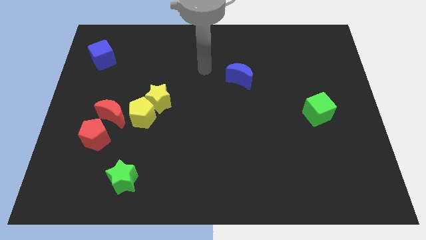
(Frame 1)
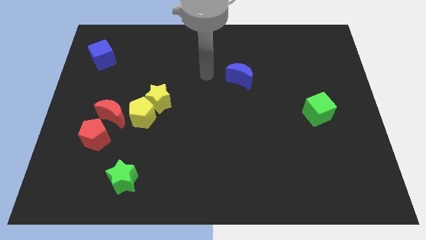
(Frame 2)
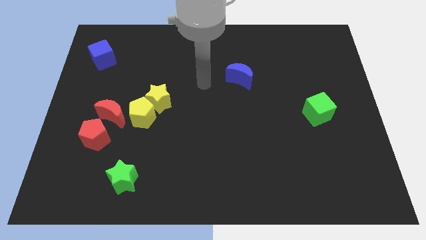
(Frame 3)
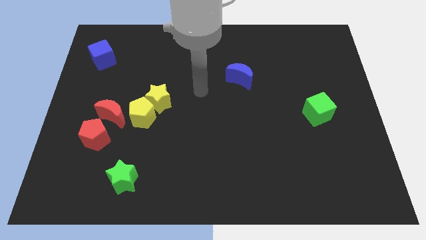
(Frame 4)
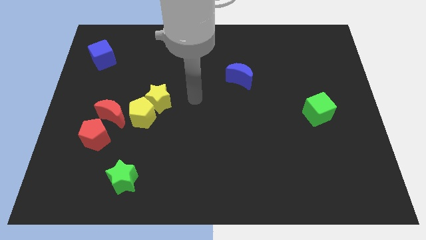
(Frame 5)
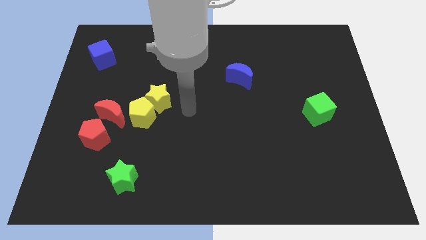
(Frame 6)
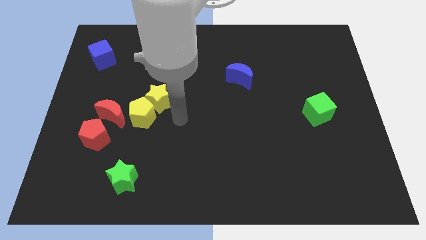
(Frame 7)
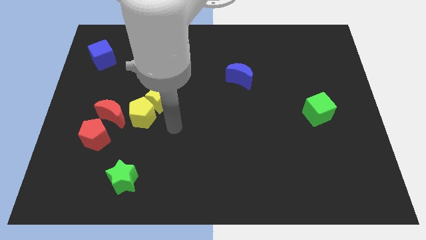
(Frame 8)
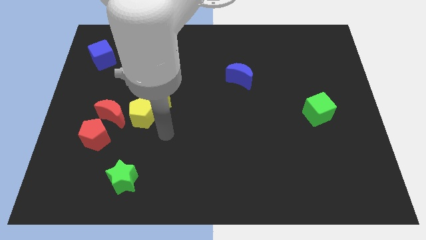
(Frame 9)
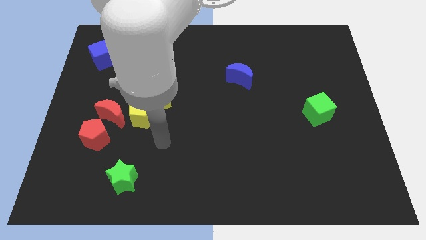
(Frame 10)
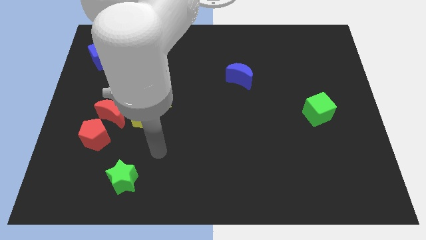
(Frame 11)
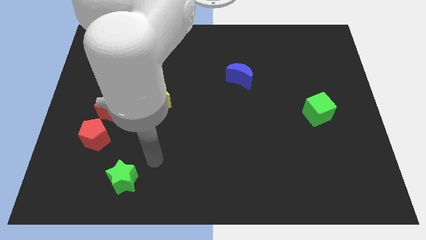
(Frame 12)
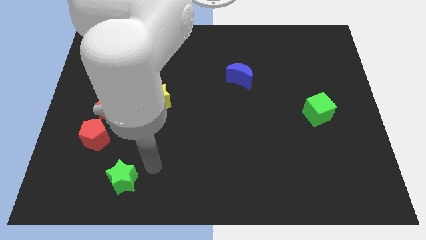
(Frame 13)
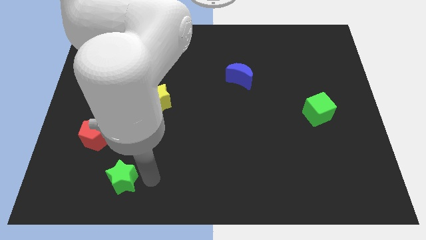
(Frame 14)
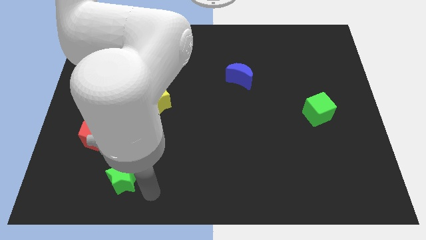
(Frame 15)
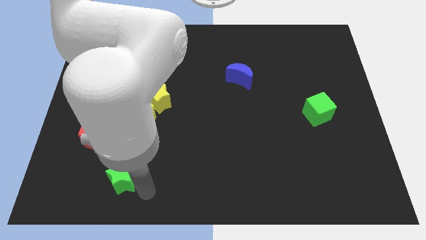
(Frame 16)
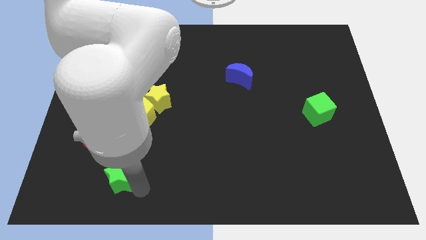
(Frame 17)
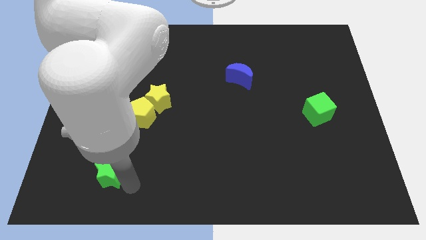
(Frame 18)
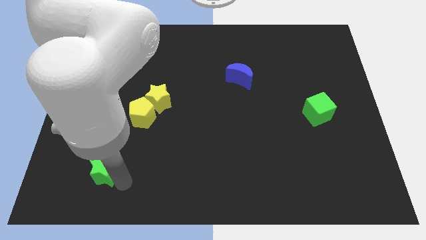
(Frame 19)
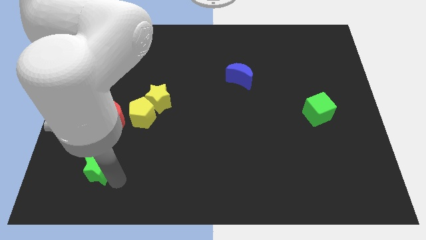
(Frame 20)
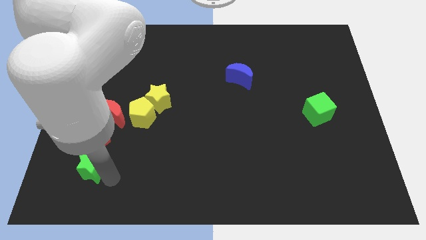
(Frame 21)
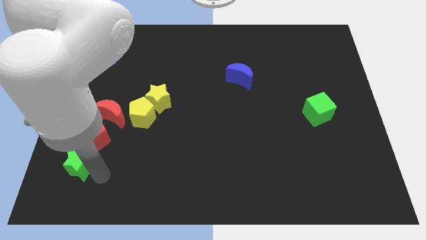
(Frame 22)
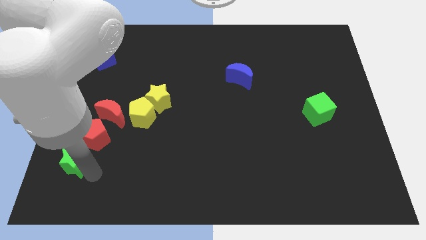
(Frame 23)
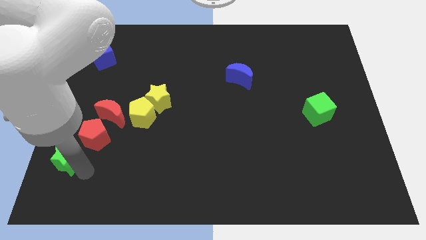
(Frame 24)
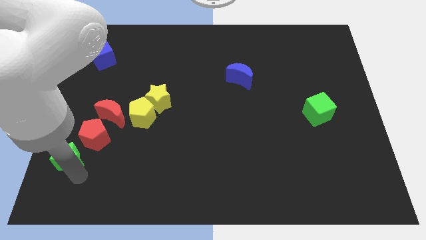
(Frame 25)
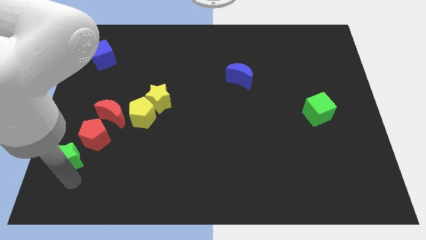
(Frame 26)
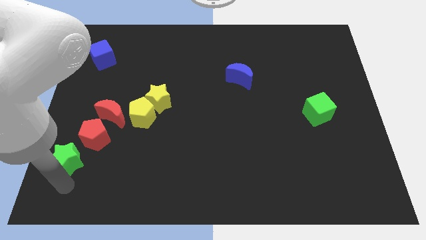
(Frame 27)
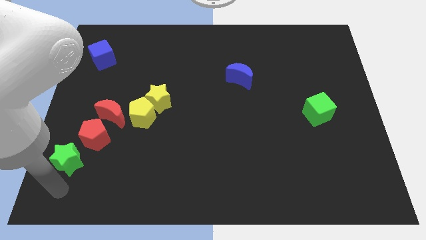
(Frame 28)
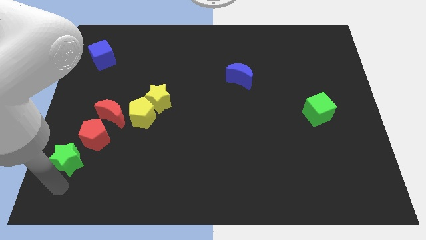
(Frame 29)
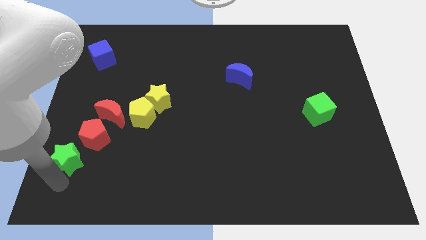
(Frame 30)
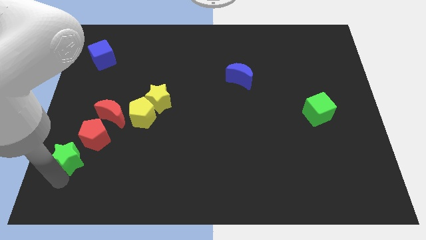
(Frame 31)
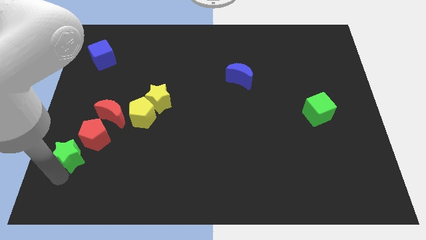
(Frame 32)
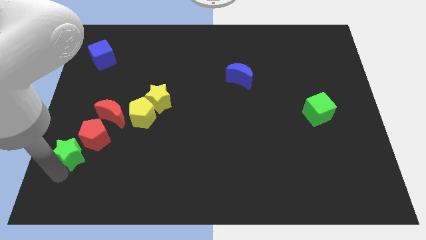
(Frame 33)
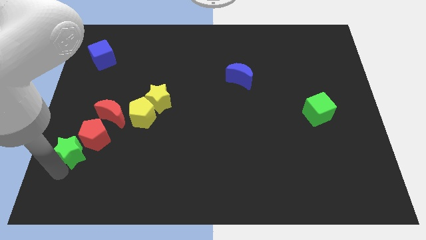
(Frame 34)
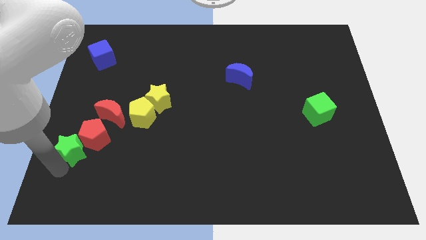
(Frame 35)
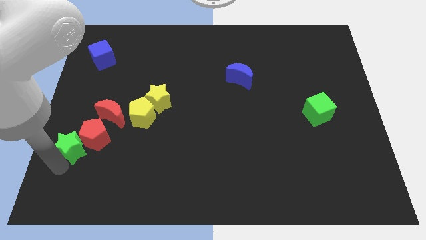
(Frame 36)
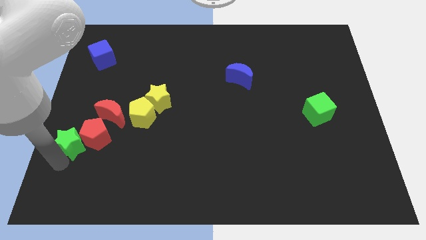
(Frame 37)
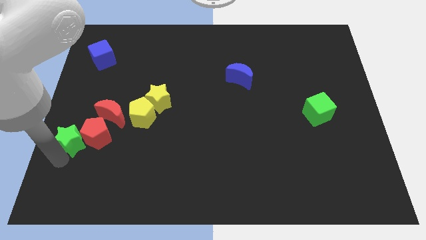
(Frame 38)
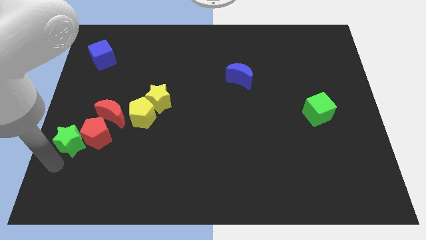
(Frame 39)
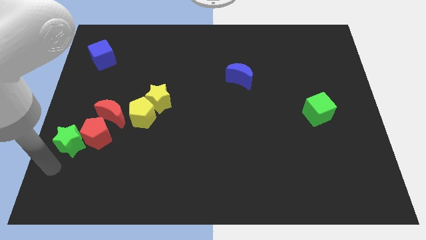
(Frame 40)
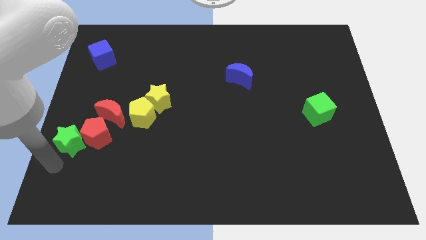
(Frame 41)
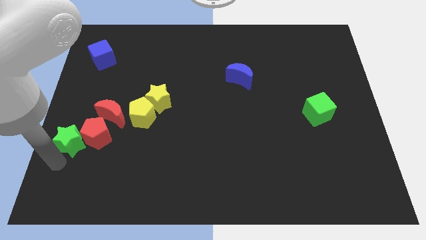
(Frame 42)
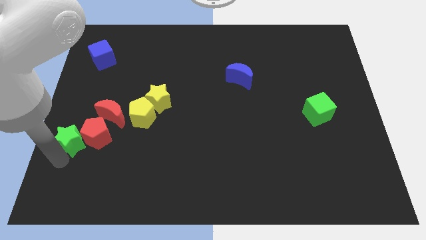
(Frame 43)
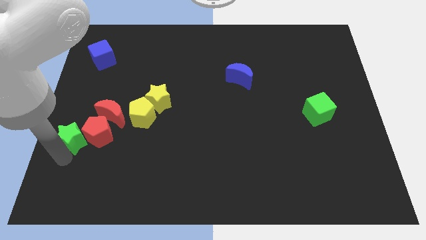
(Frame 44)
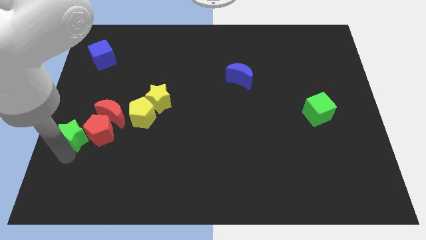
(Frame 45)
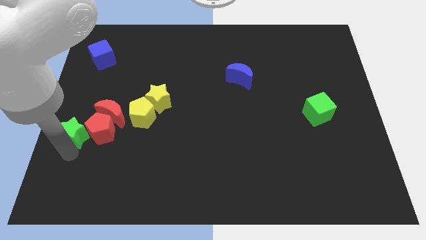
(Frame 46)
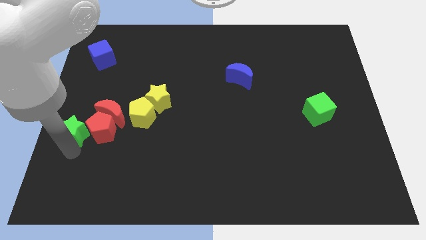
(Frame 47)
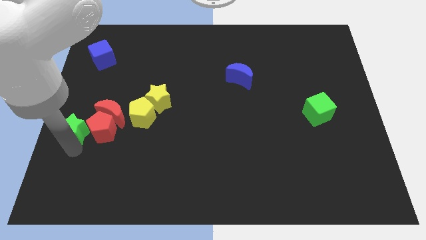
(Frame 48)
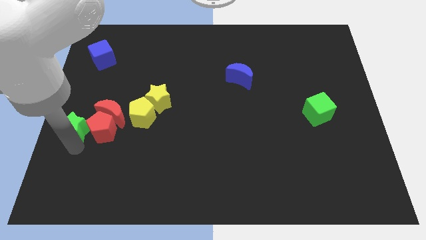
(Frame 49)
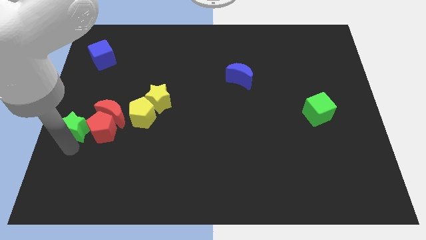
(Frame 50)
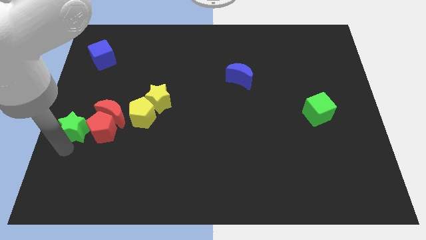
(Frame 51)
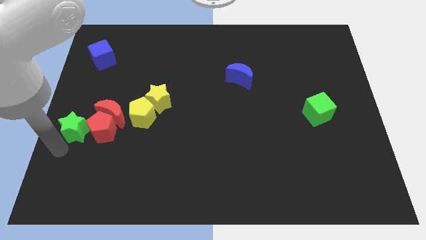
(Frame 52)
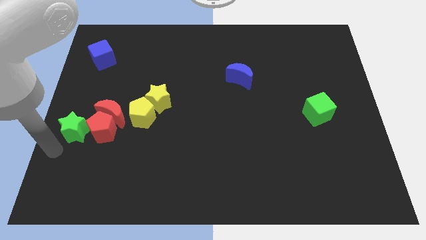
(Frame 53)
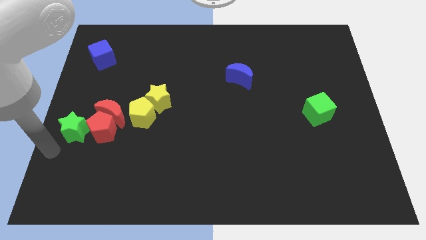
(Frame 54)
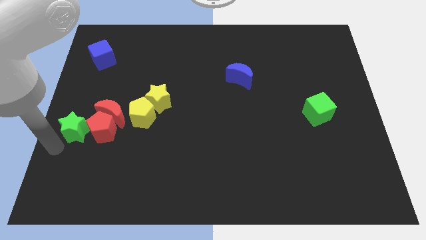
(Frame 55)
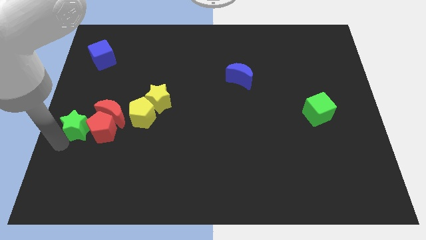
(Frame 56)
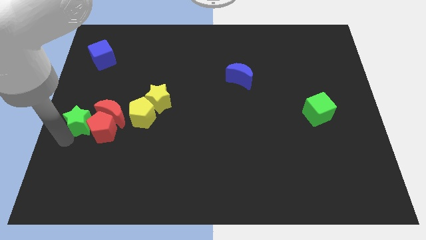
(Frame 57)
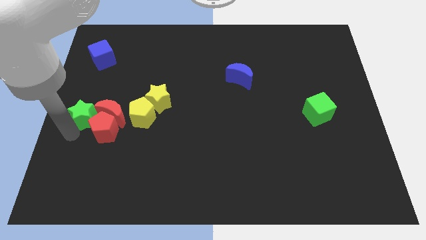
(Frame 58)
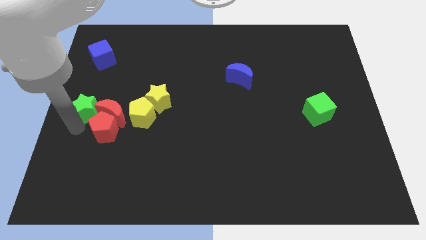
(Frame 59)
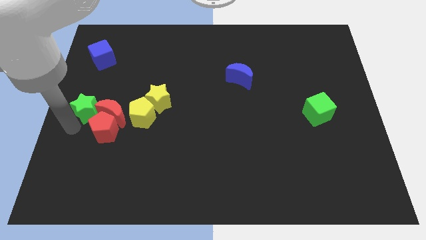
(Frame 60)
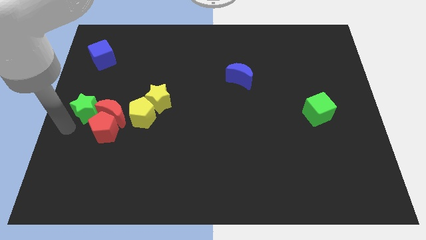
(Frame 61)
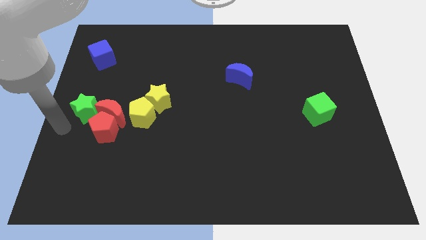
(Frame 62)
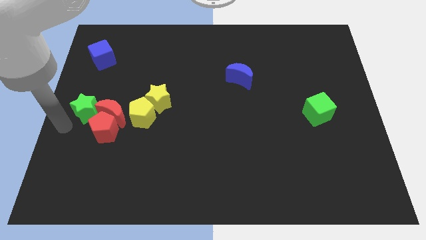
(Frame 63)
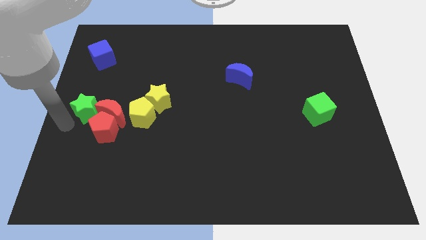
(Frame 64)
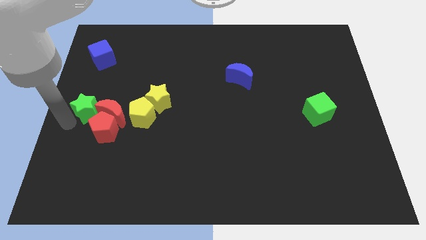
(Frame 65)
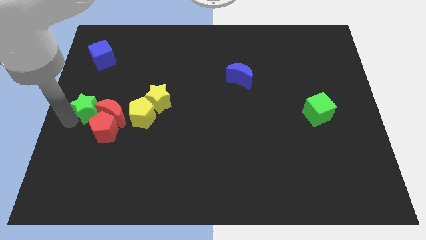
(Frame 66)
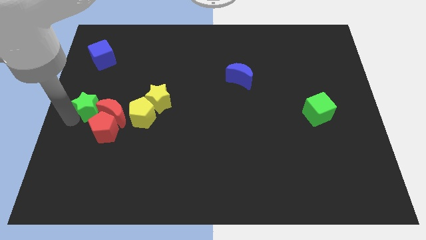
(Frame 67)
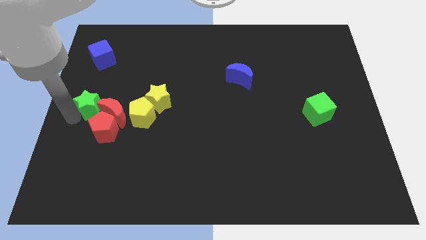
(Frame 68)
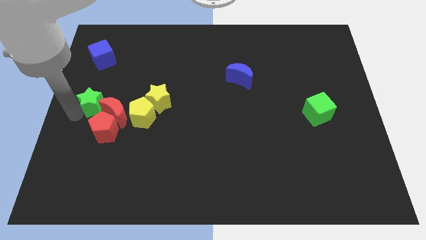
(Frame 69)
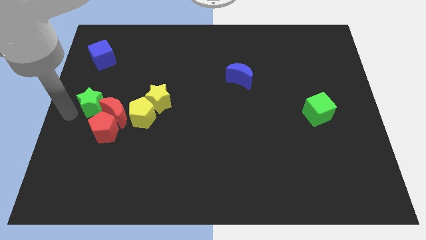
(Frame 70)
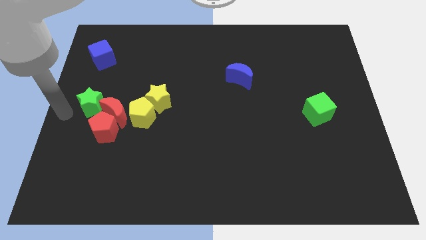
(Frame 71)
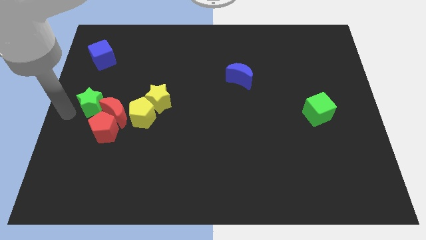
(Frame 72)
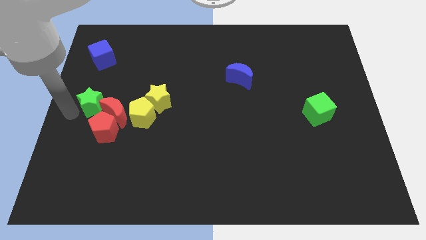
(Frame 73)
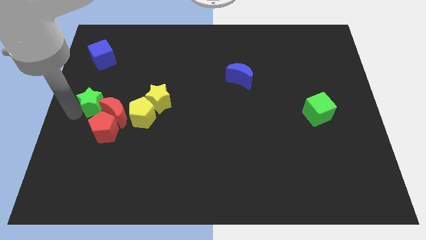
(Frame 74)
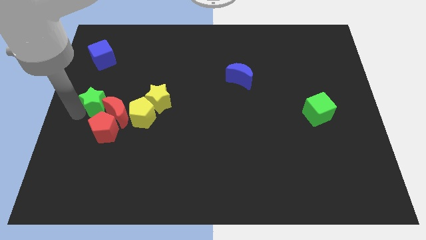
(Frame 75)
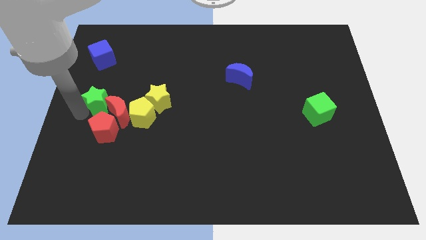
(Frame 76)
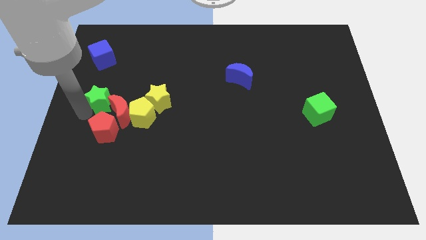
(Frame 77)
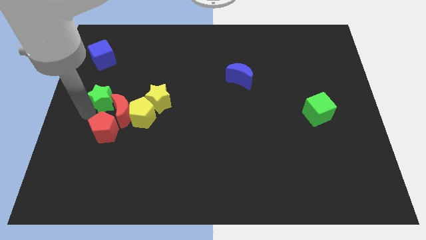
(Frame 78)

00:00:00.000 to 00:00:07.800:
move the green star to the top left of the yellow pentagon

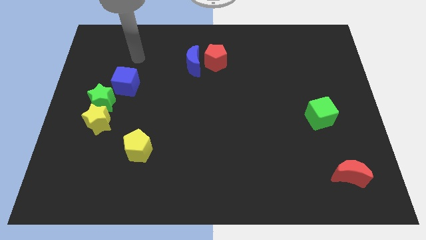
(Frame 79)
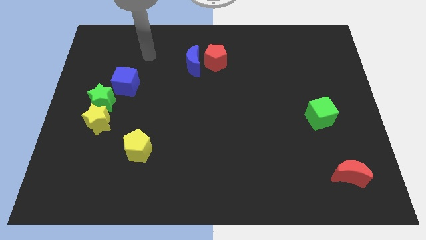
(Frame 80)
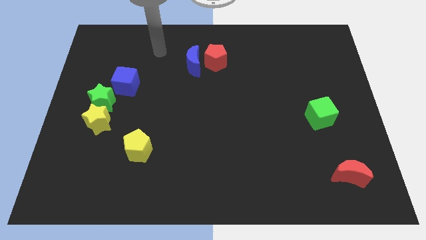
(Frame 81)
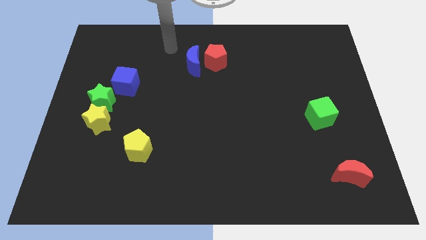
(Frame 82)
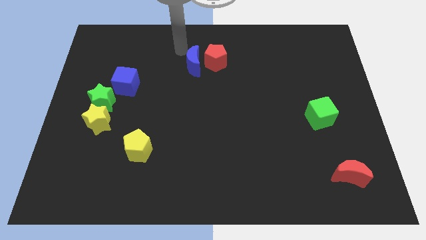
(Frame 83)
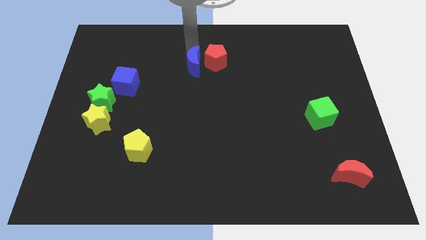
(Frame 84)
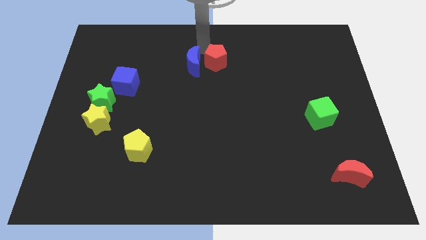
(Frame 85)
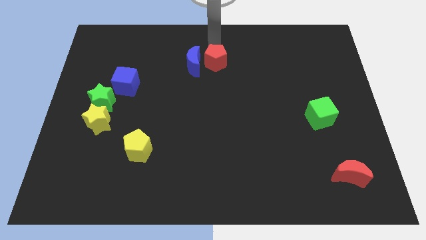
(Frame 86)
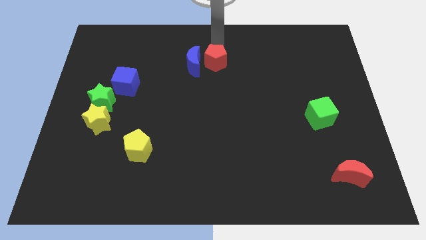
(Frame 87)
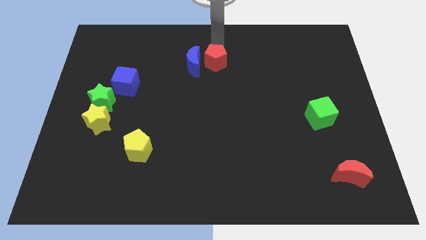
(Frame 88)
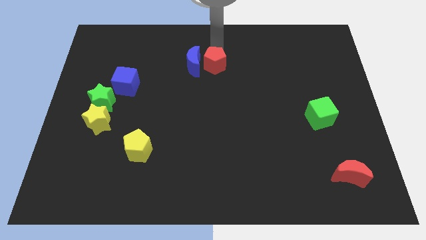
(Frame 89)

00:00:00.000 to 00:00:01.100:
put the red pentagon to the bottom right of the blue moon
